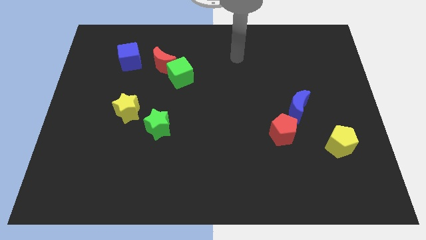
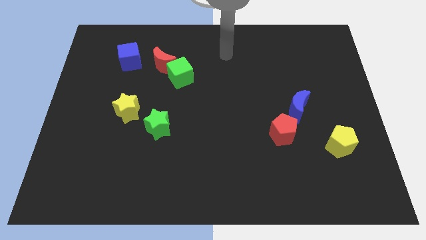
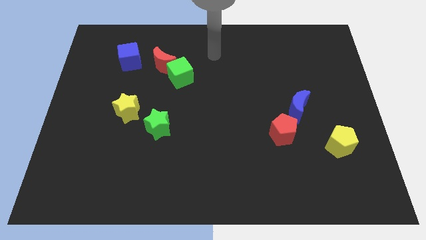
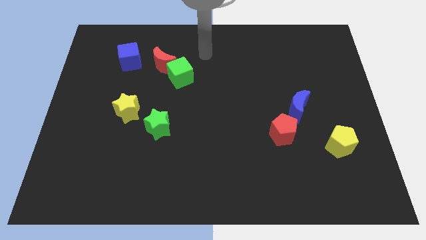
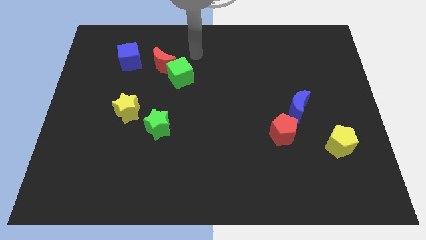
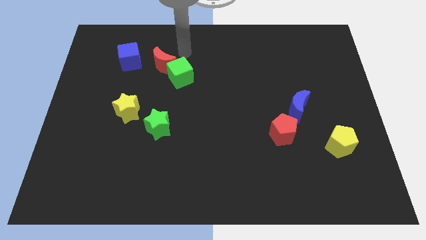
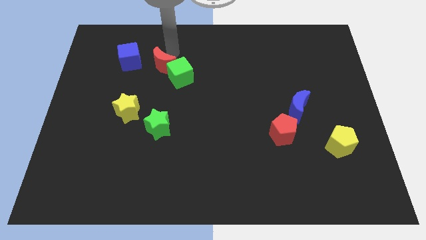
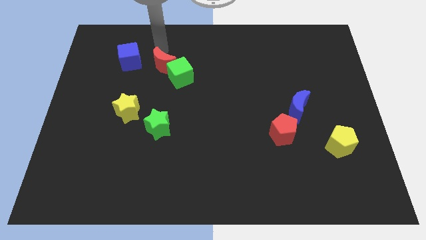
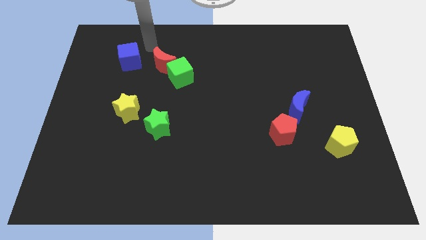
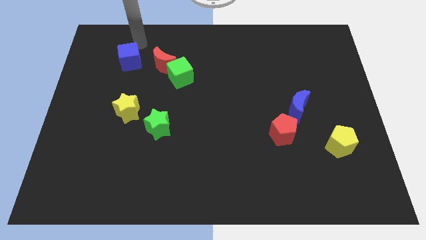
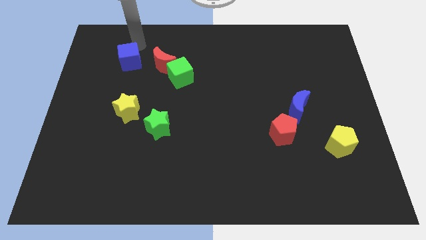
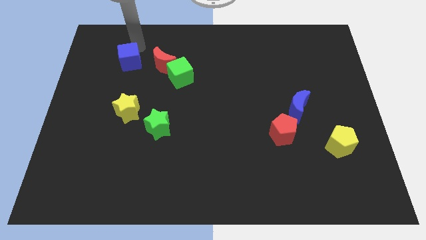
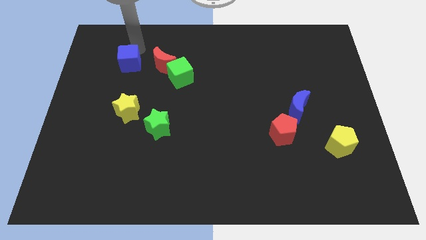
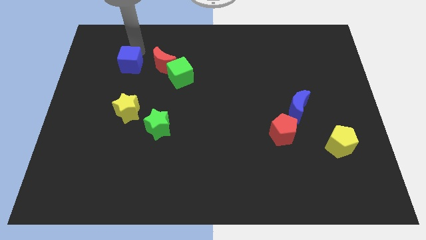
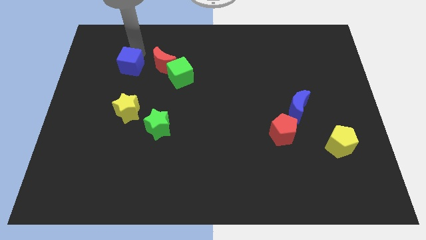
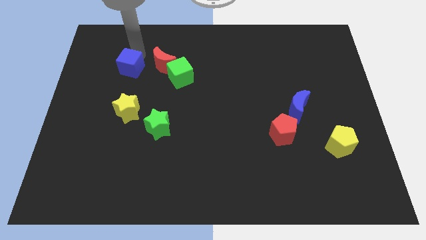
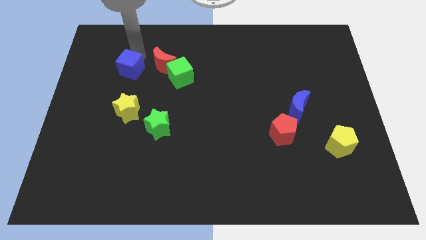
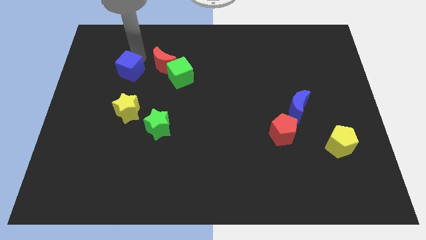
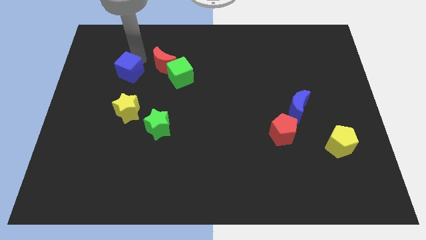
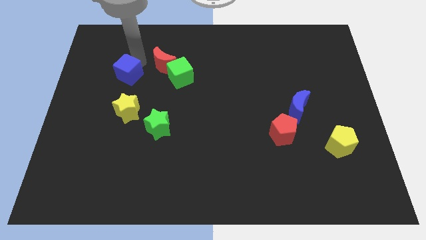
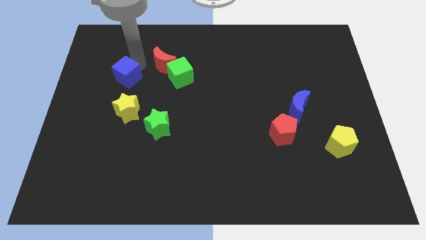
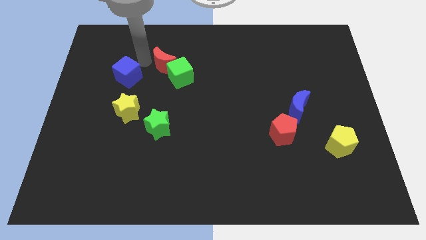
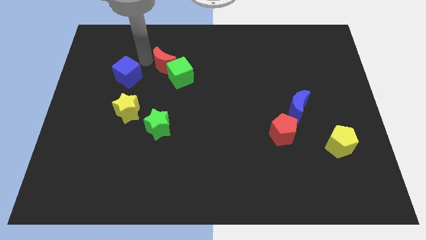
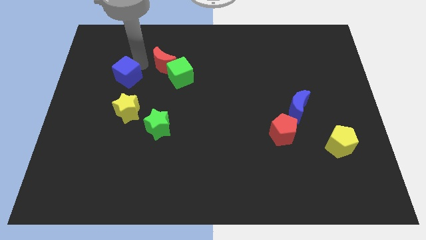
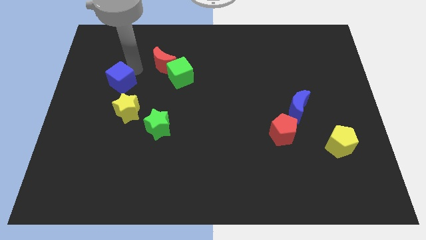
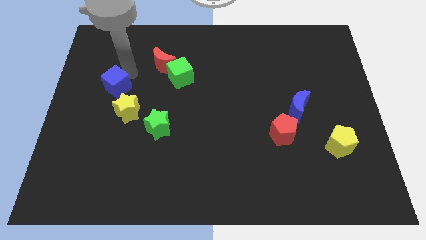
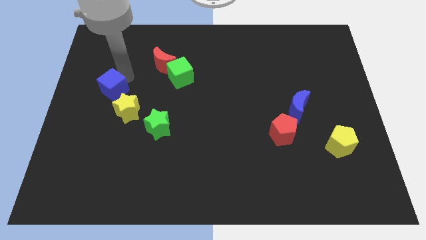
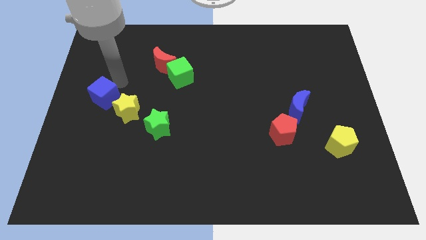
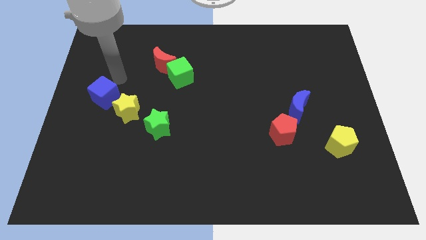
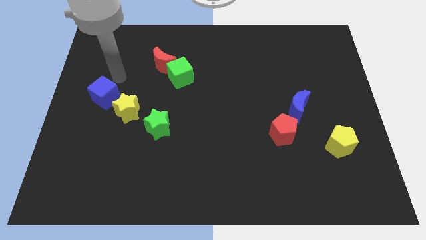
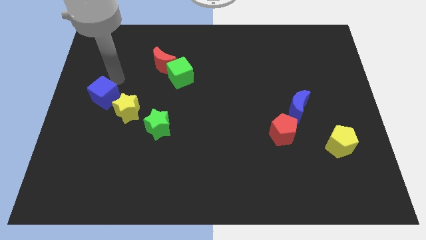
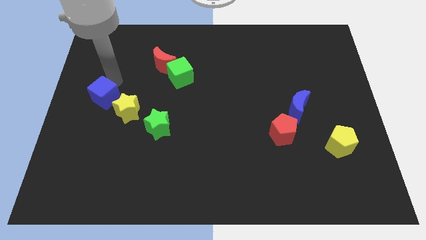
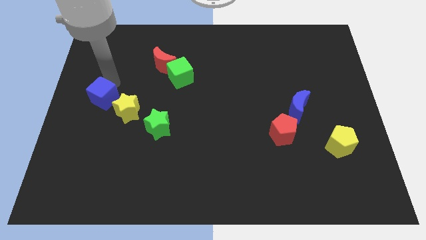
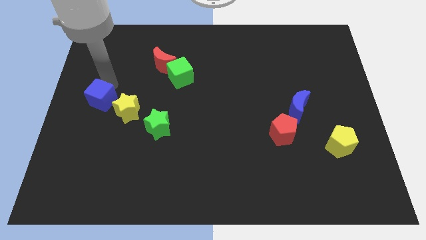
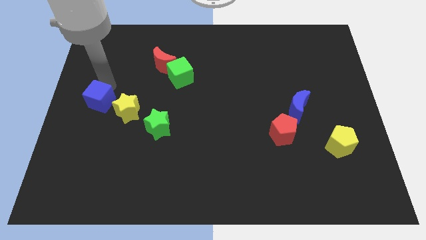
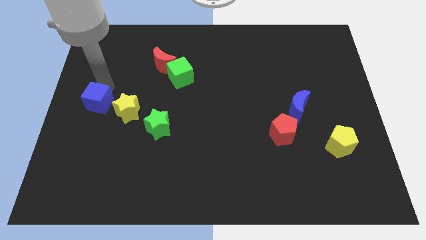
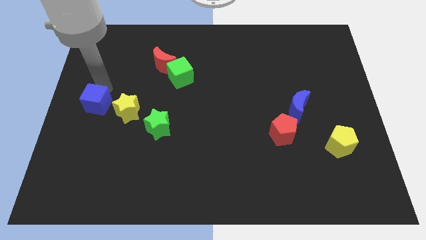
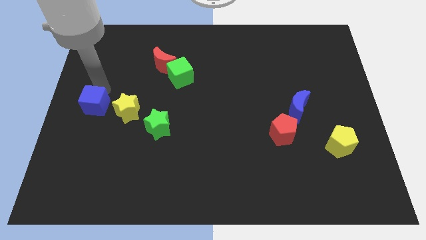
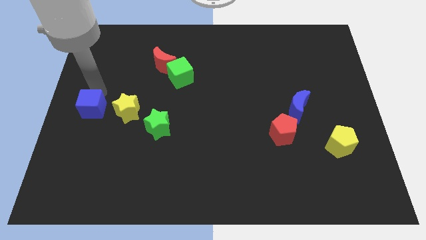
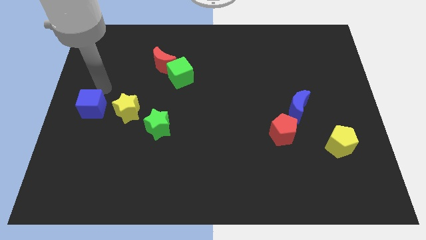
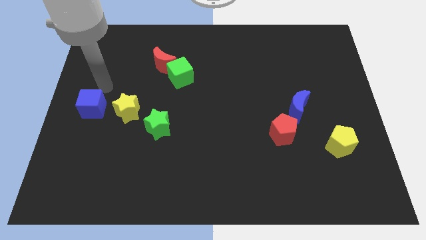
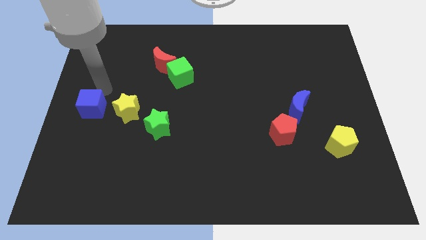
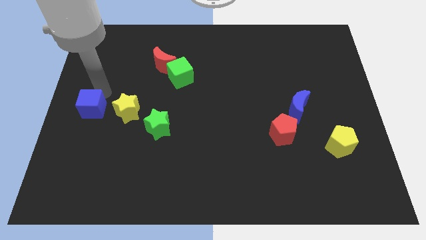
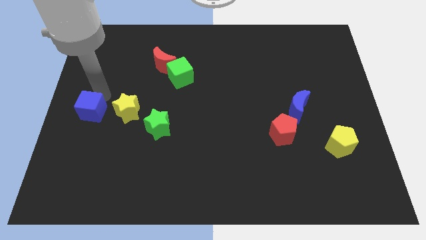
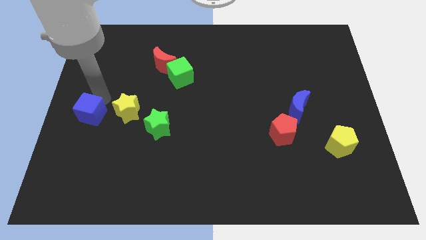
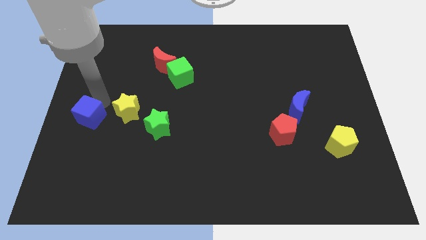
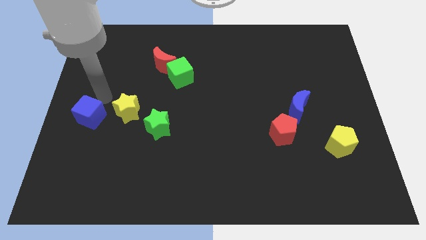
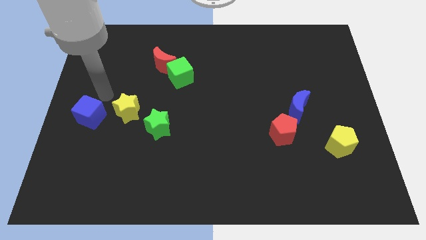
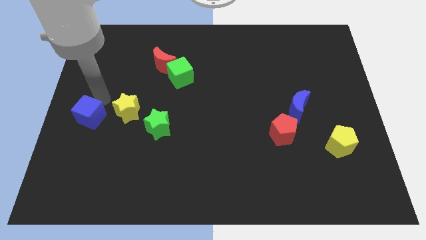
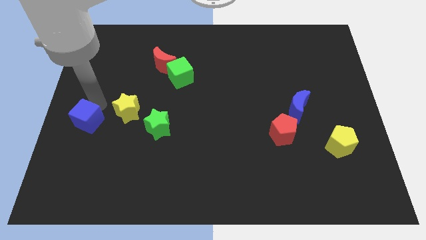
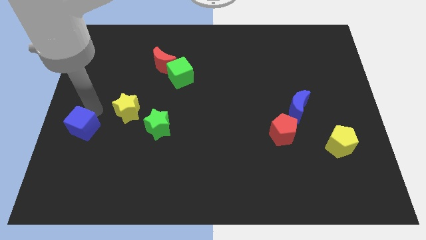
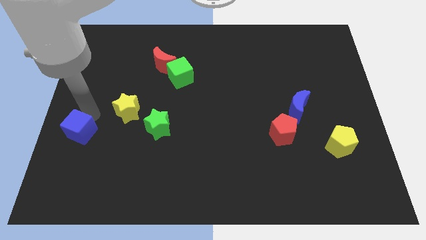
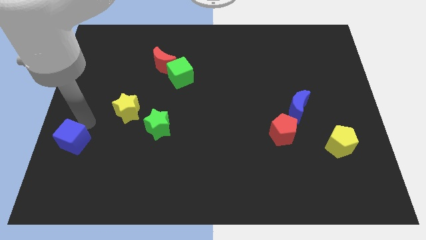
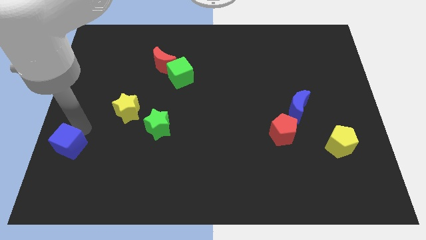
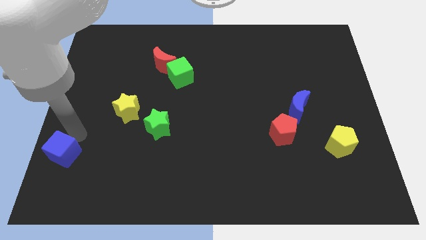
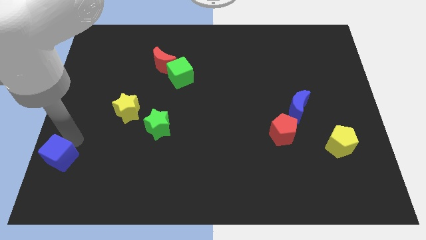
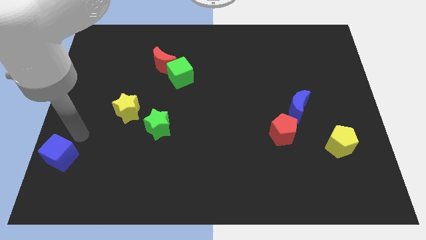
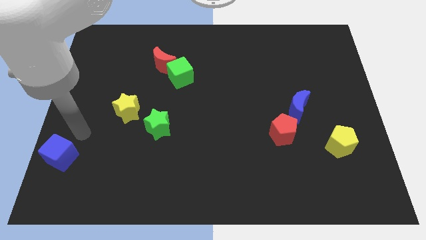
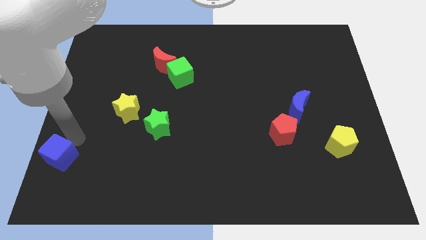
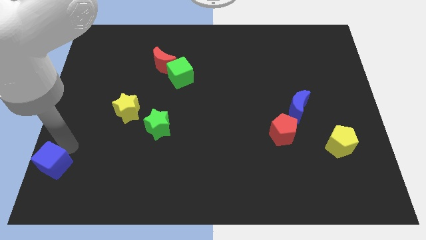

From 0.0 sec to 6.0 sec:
push the blue cube to the bottom left corner
